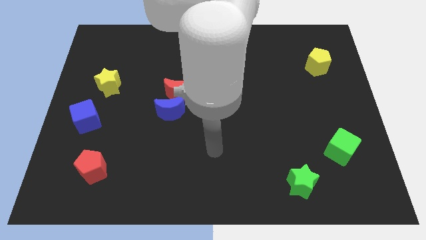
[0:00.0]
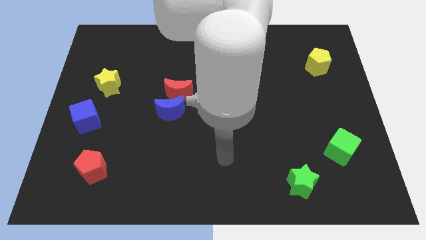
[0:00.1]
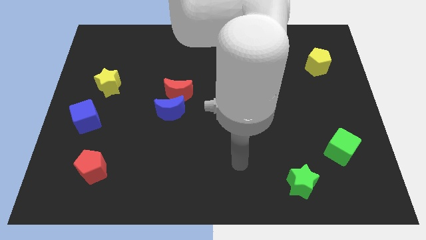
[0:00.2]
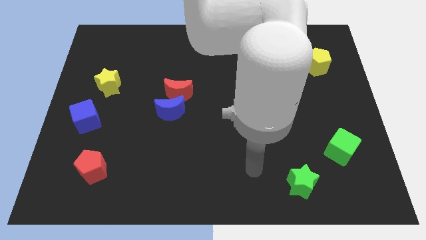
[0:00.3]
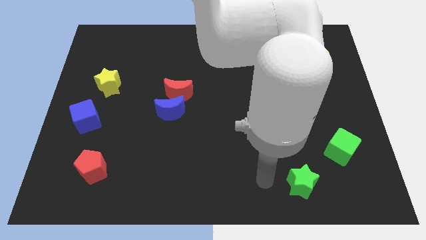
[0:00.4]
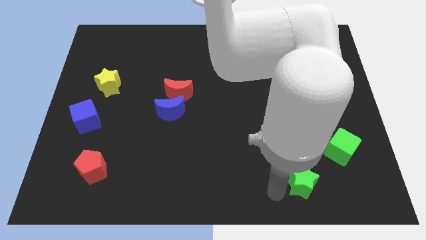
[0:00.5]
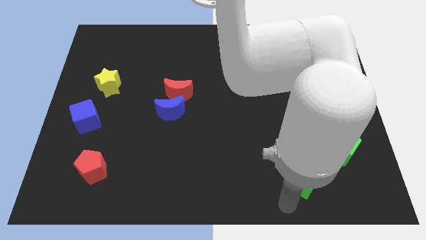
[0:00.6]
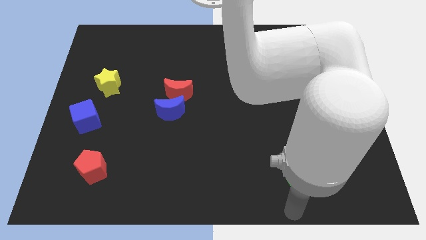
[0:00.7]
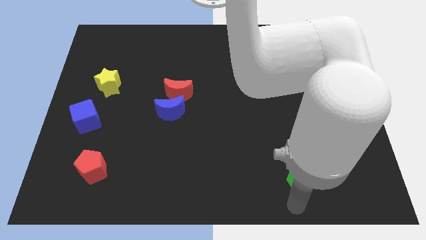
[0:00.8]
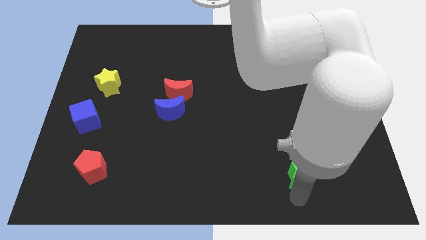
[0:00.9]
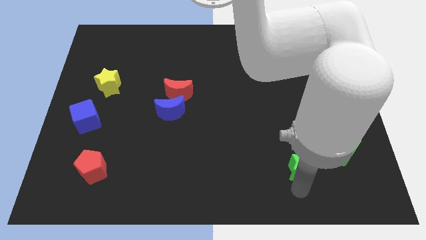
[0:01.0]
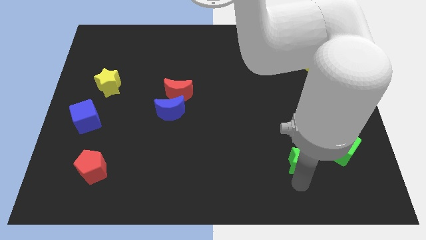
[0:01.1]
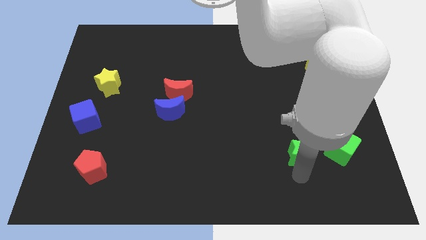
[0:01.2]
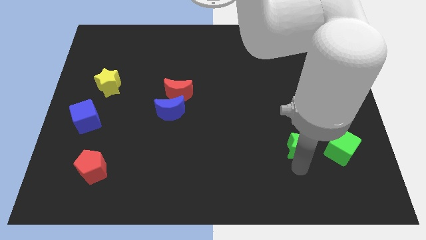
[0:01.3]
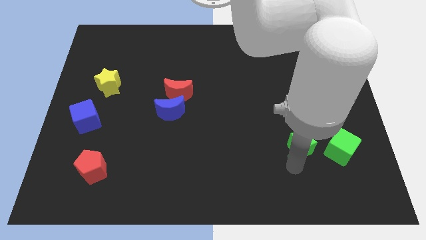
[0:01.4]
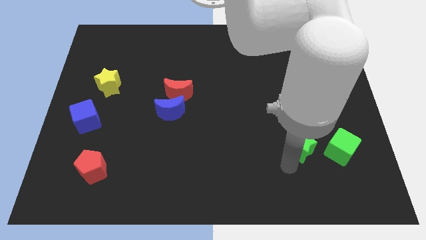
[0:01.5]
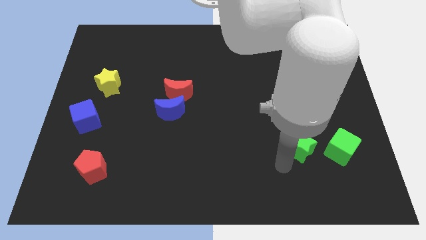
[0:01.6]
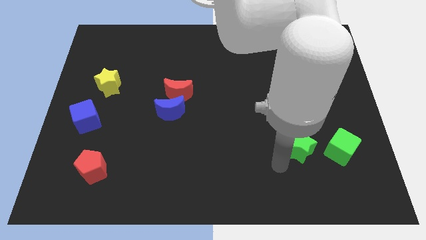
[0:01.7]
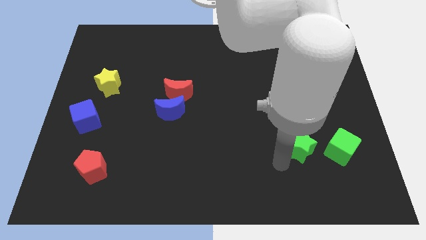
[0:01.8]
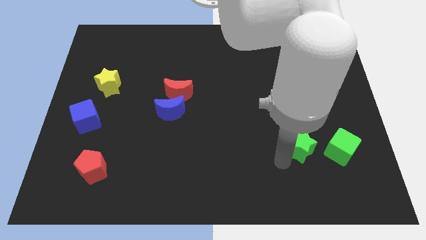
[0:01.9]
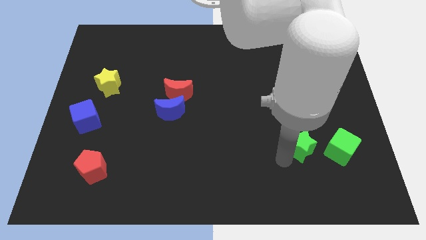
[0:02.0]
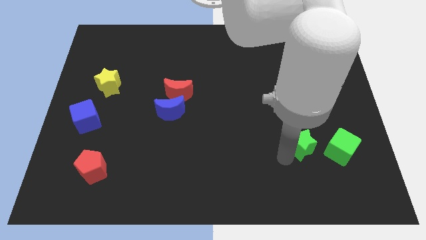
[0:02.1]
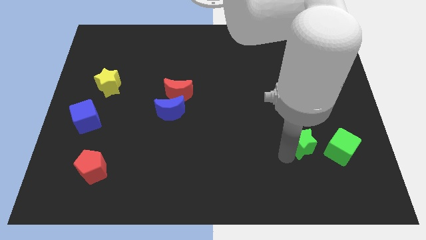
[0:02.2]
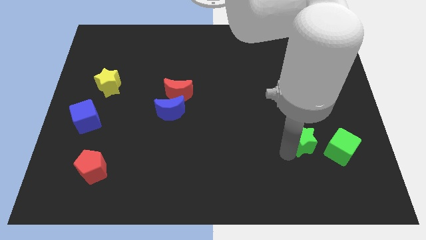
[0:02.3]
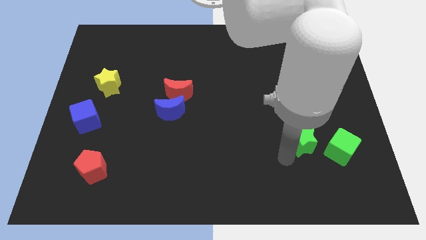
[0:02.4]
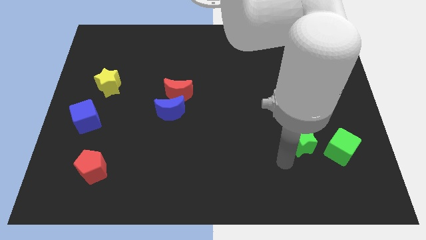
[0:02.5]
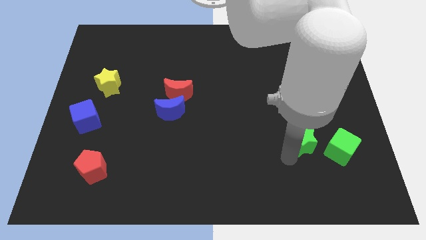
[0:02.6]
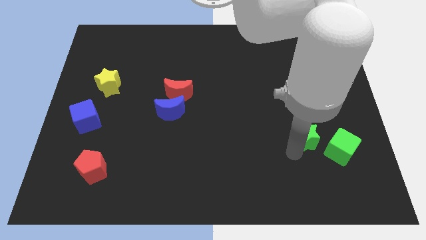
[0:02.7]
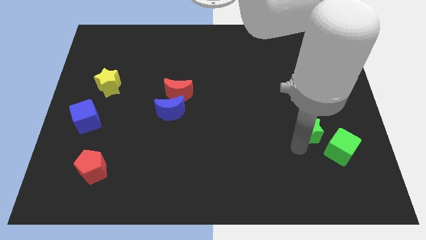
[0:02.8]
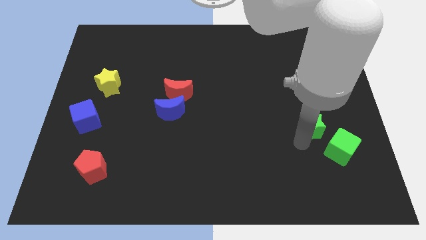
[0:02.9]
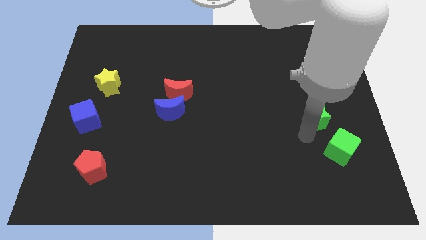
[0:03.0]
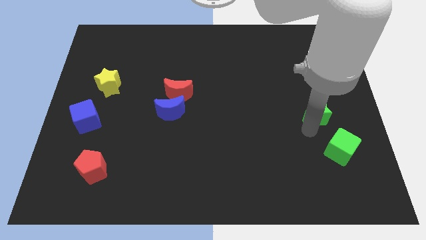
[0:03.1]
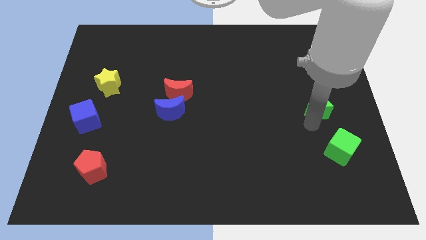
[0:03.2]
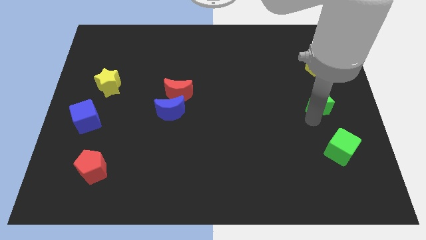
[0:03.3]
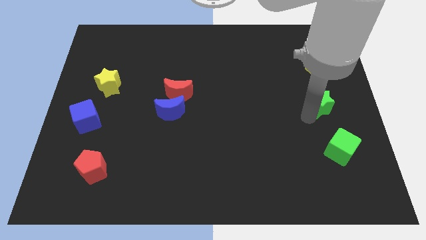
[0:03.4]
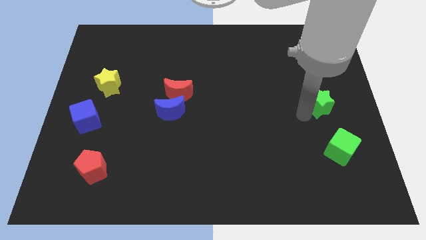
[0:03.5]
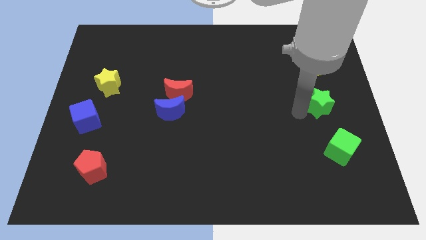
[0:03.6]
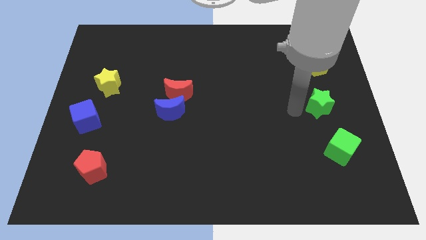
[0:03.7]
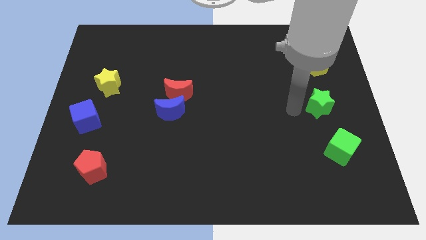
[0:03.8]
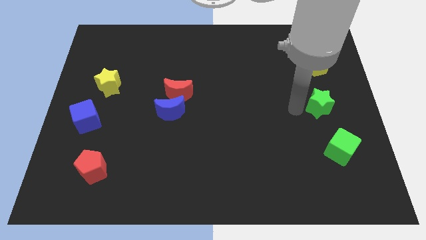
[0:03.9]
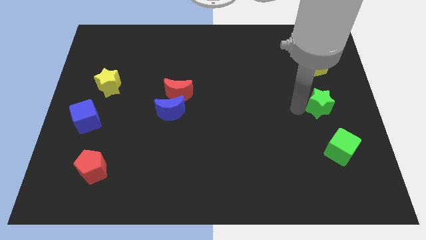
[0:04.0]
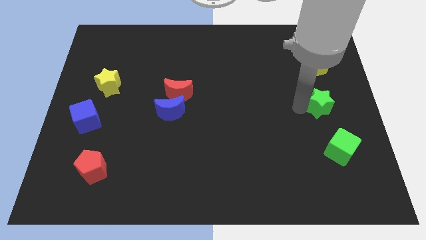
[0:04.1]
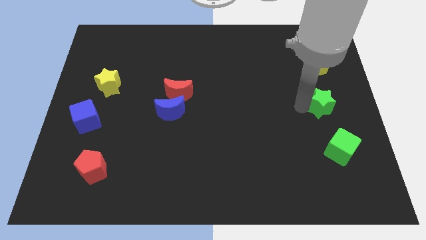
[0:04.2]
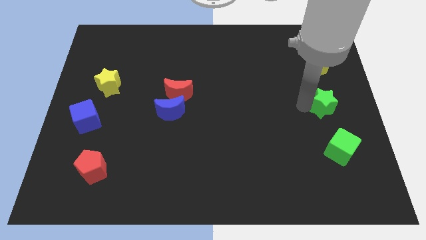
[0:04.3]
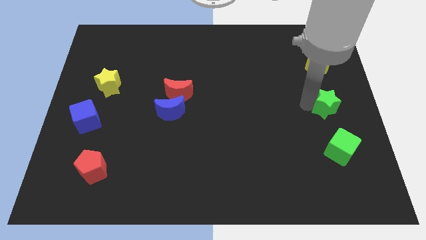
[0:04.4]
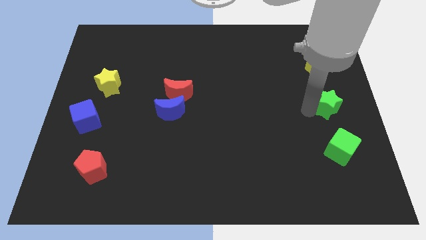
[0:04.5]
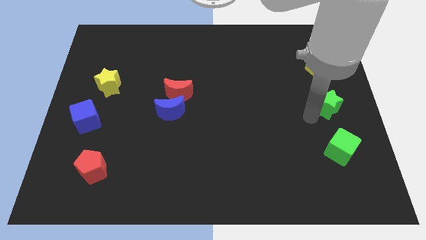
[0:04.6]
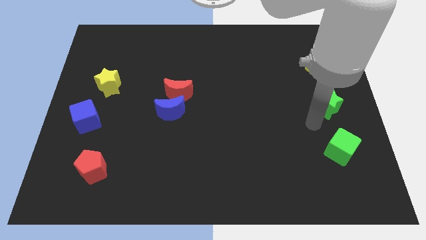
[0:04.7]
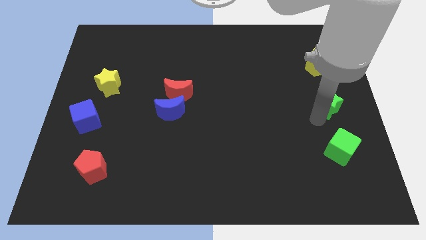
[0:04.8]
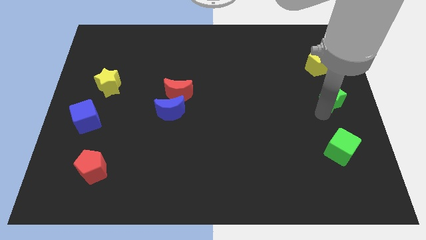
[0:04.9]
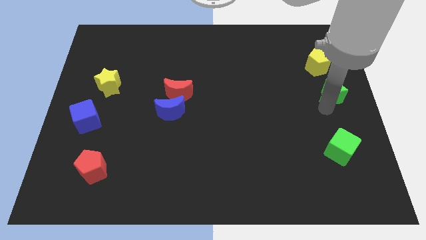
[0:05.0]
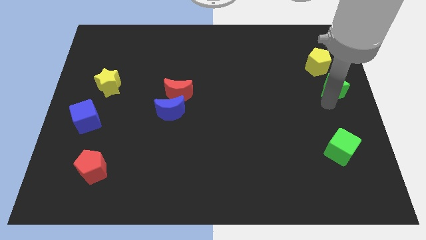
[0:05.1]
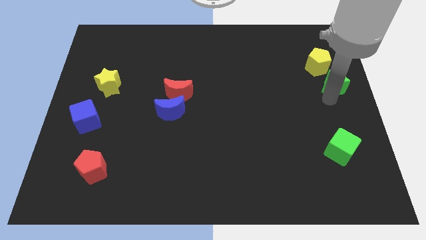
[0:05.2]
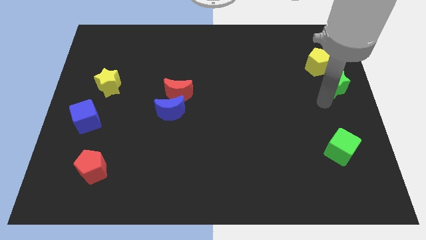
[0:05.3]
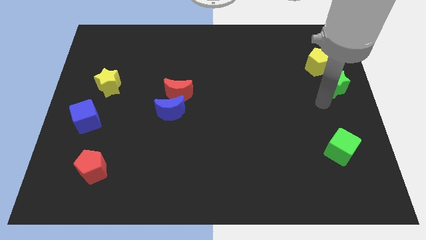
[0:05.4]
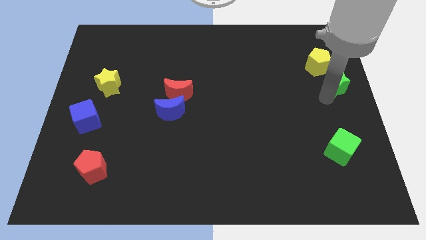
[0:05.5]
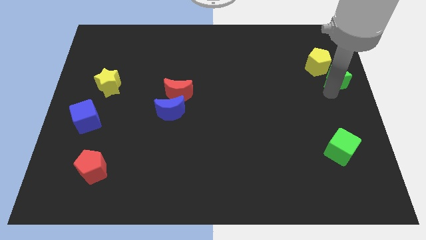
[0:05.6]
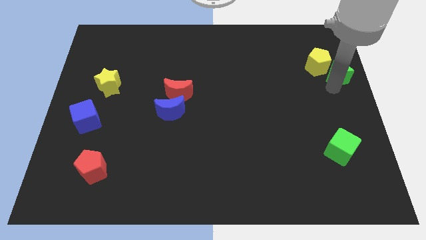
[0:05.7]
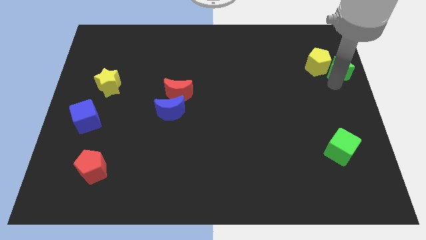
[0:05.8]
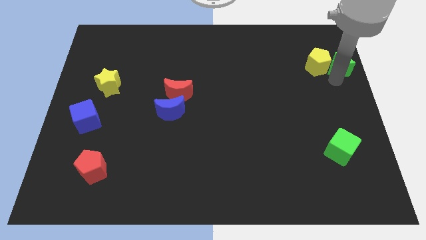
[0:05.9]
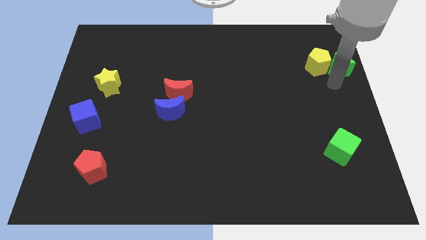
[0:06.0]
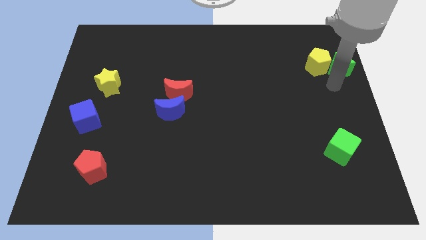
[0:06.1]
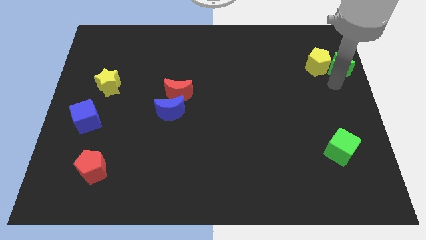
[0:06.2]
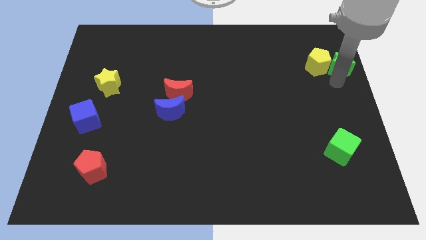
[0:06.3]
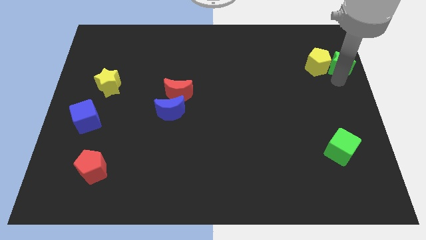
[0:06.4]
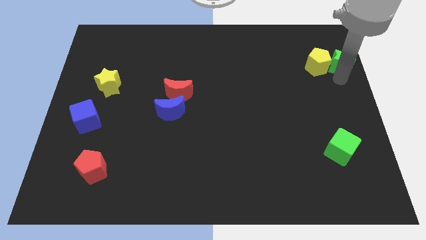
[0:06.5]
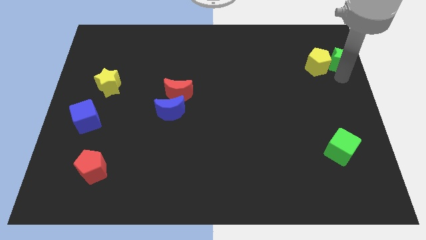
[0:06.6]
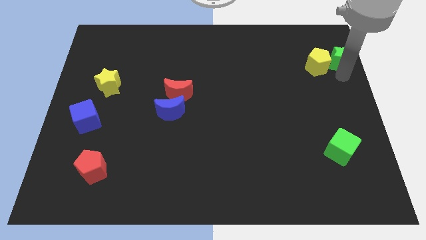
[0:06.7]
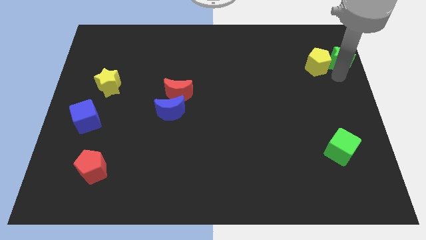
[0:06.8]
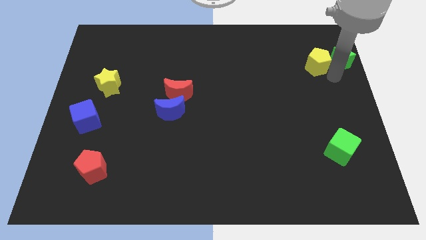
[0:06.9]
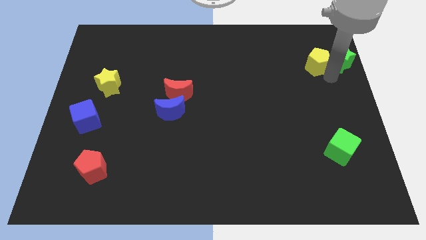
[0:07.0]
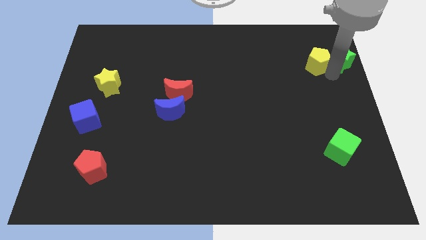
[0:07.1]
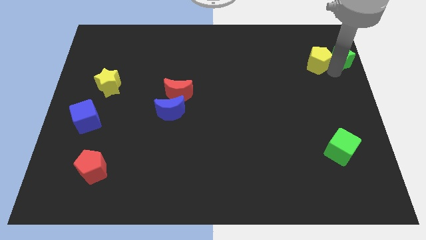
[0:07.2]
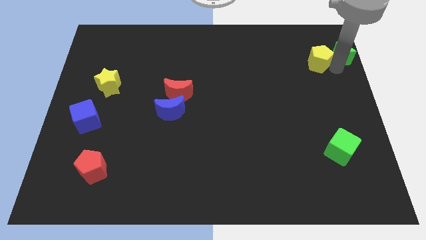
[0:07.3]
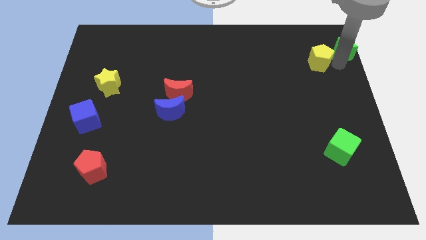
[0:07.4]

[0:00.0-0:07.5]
move the green star to the top right of the board

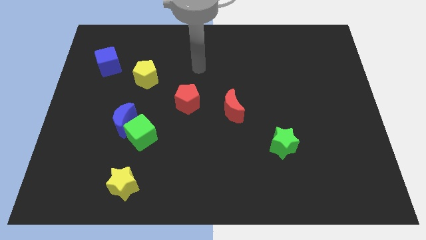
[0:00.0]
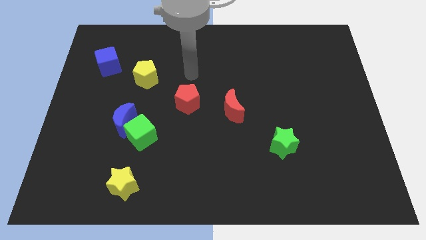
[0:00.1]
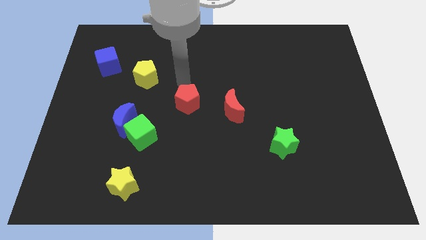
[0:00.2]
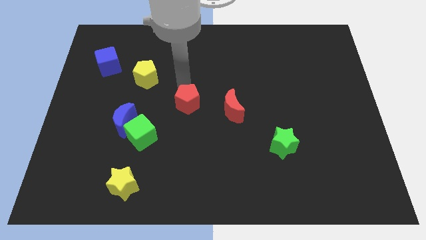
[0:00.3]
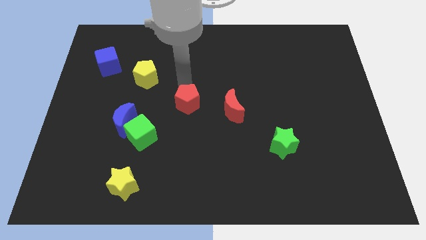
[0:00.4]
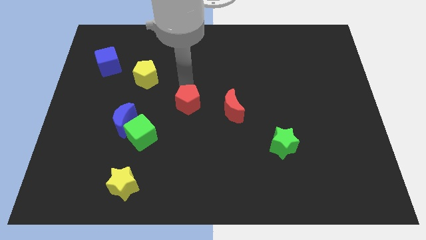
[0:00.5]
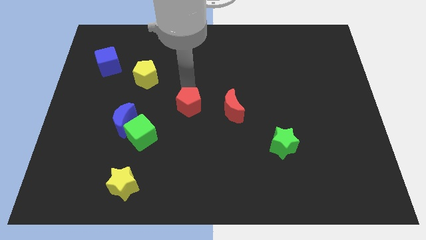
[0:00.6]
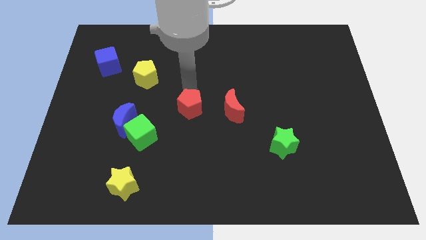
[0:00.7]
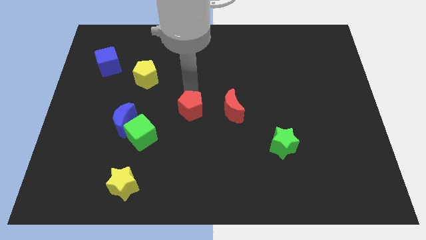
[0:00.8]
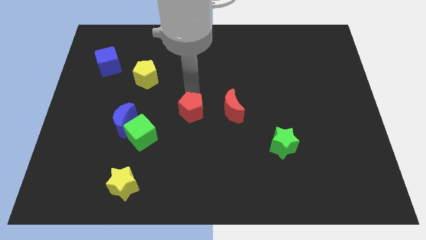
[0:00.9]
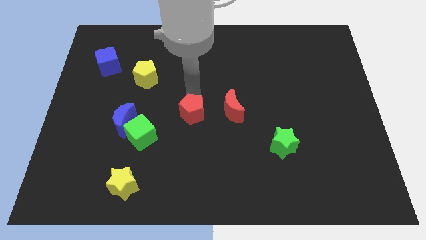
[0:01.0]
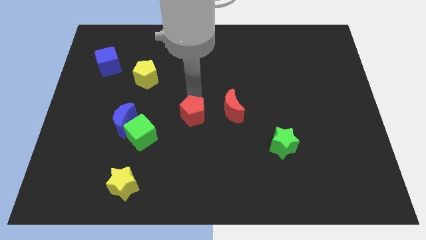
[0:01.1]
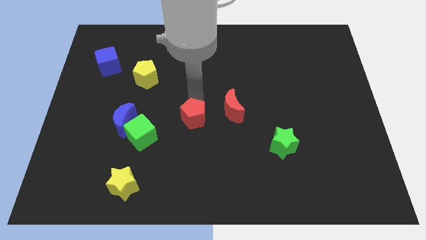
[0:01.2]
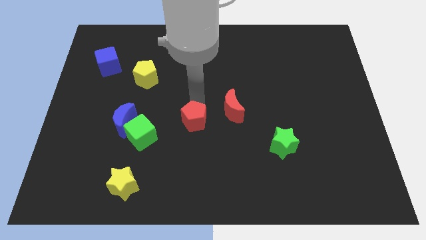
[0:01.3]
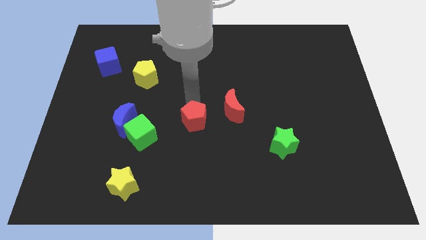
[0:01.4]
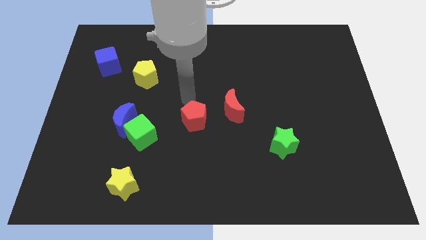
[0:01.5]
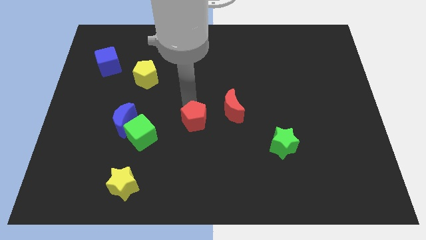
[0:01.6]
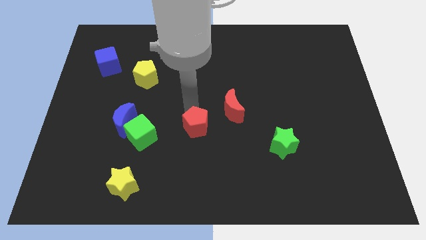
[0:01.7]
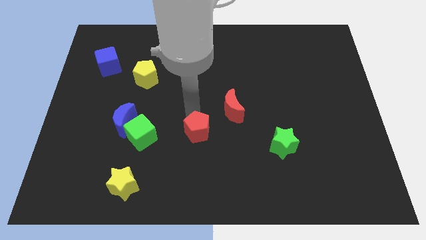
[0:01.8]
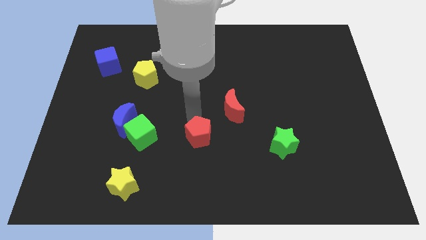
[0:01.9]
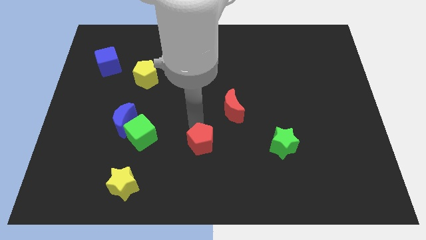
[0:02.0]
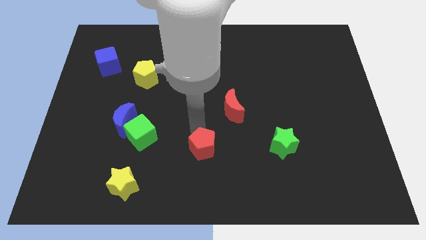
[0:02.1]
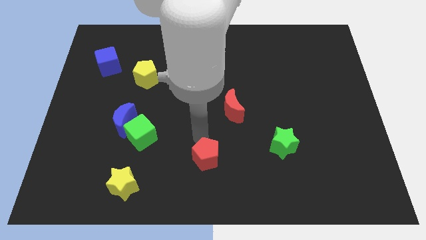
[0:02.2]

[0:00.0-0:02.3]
put the red pentagon to the bottom side
